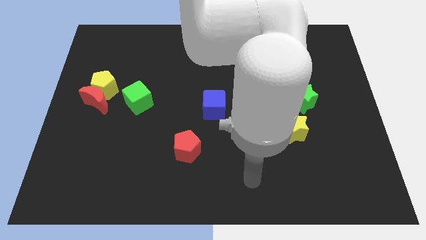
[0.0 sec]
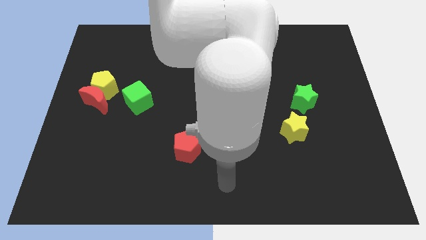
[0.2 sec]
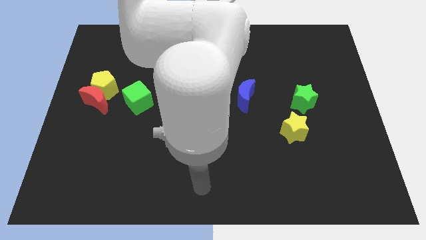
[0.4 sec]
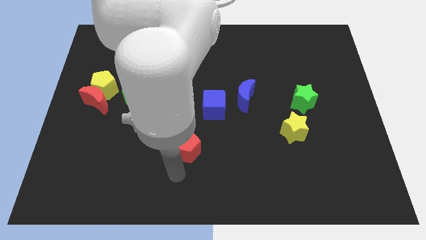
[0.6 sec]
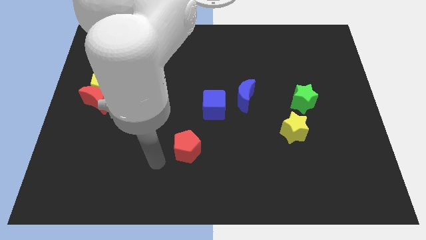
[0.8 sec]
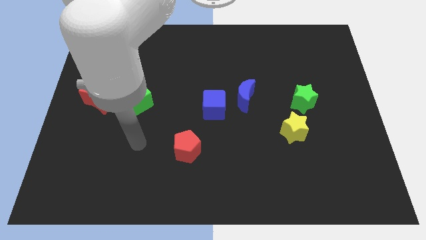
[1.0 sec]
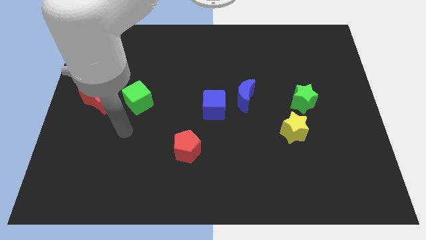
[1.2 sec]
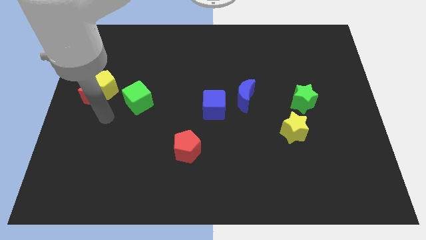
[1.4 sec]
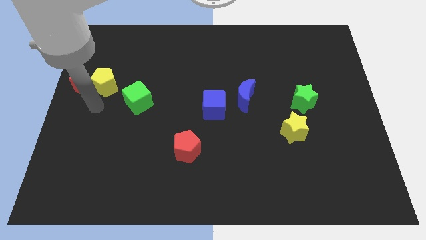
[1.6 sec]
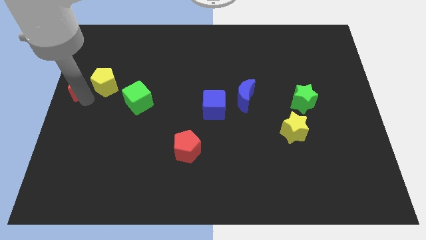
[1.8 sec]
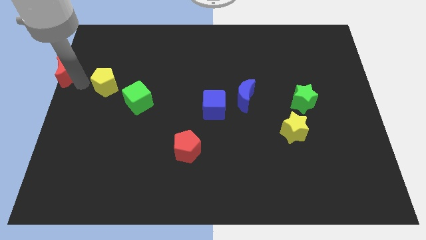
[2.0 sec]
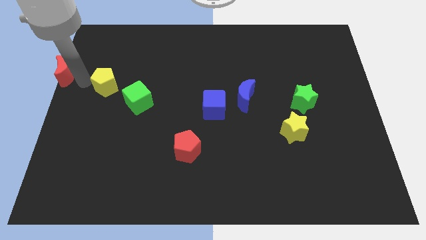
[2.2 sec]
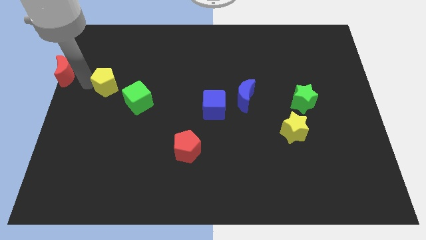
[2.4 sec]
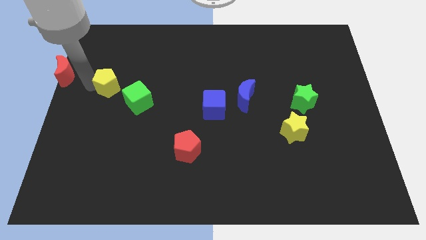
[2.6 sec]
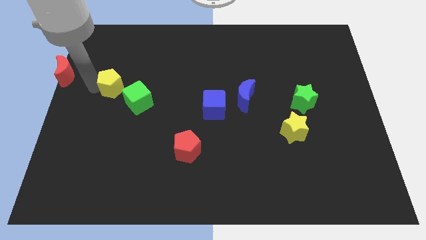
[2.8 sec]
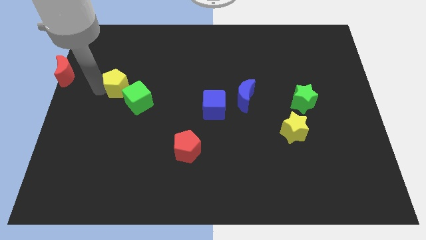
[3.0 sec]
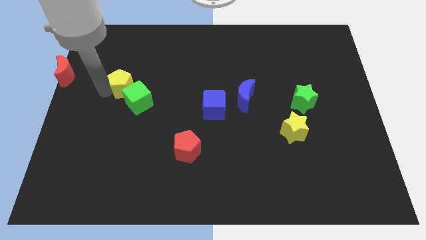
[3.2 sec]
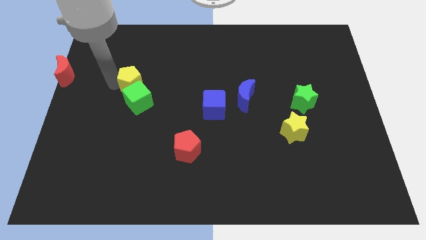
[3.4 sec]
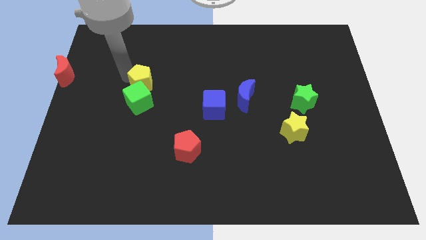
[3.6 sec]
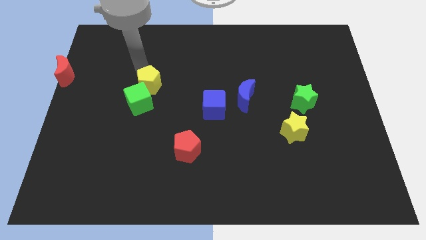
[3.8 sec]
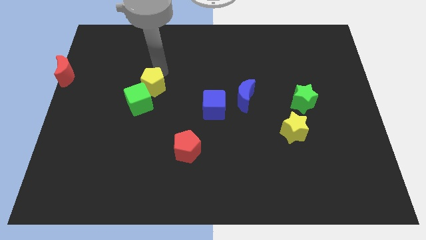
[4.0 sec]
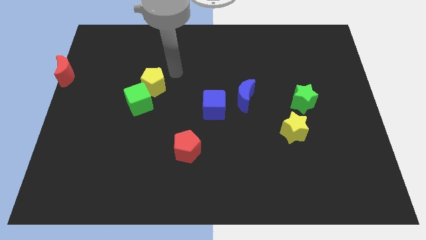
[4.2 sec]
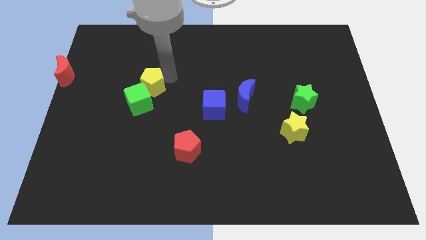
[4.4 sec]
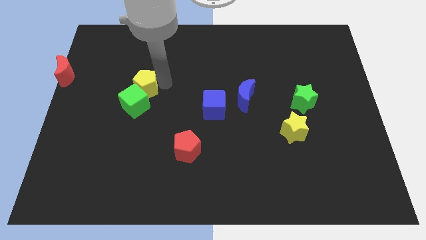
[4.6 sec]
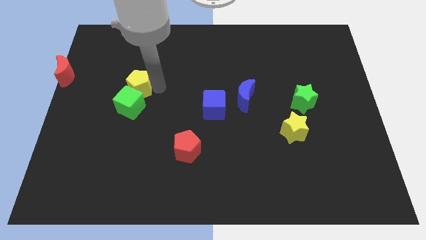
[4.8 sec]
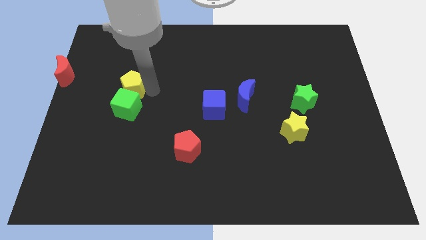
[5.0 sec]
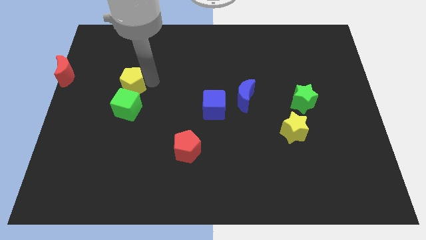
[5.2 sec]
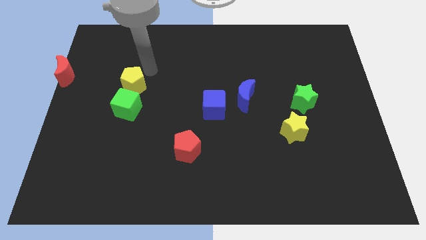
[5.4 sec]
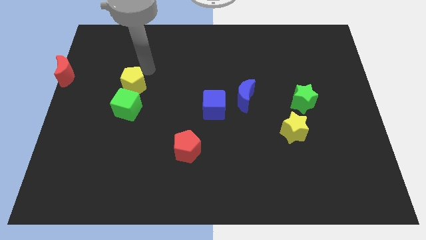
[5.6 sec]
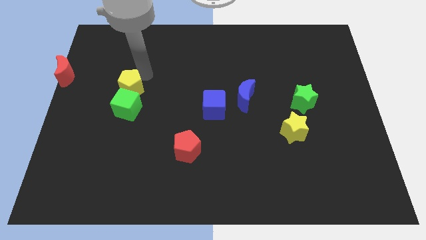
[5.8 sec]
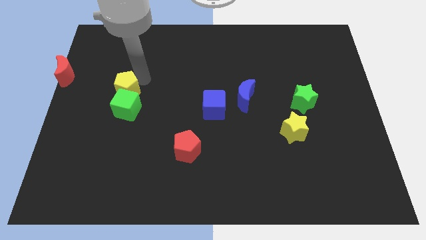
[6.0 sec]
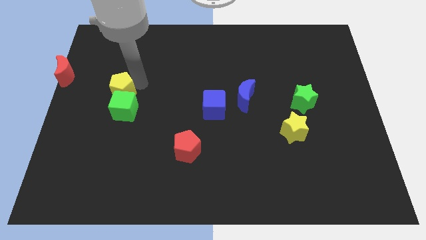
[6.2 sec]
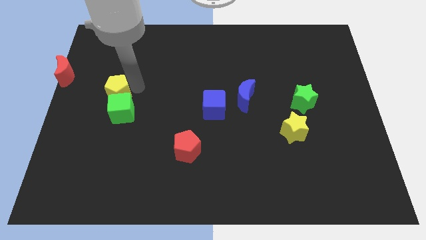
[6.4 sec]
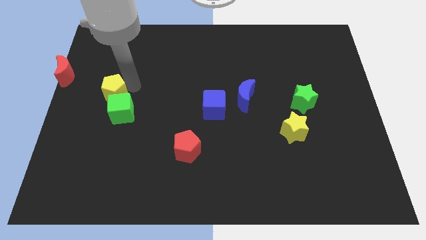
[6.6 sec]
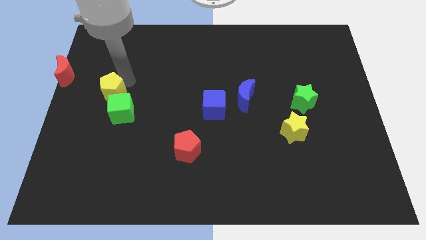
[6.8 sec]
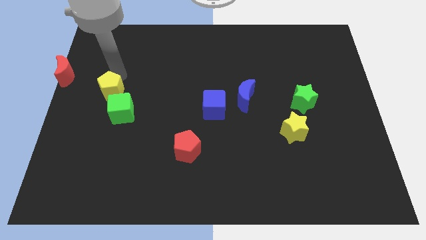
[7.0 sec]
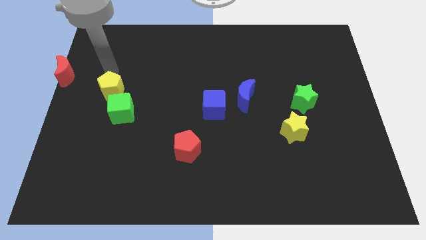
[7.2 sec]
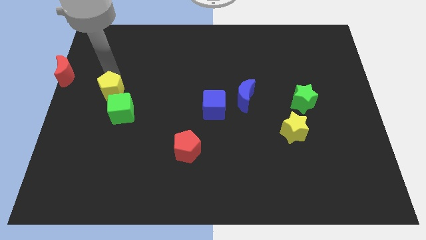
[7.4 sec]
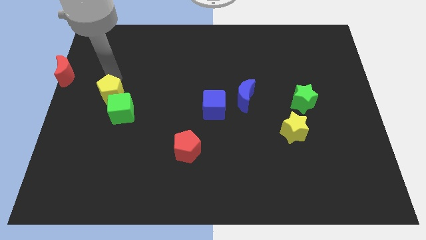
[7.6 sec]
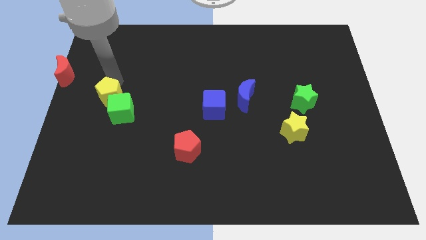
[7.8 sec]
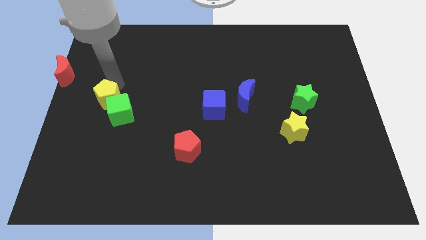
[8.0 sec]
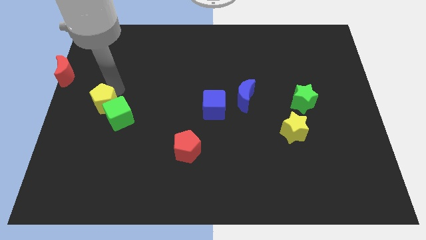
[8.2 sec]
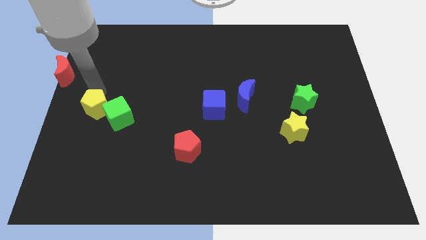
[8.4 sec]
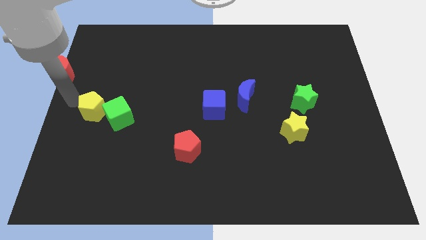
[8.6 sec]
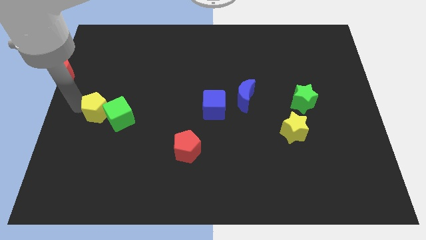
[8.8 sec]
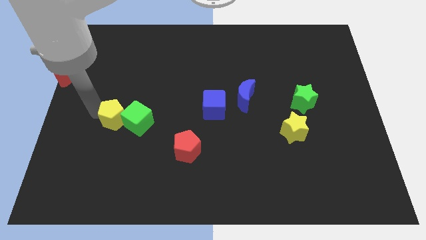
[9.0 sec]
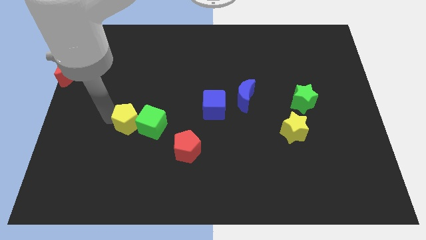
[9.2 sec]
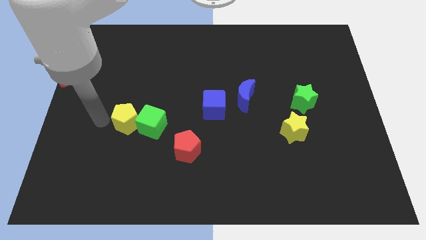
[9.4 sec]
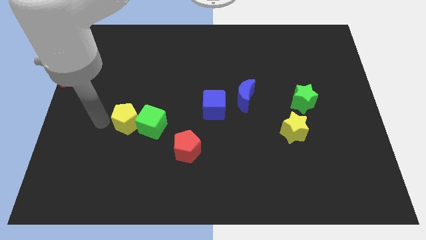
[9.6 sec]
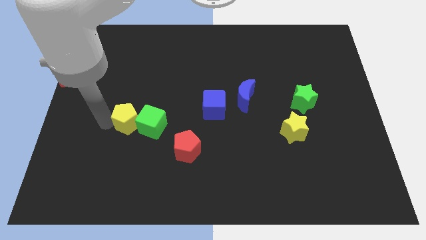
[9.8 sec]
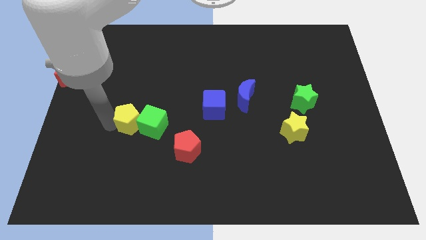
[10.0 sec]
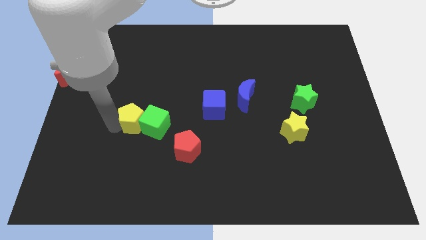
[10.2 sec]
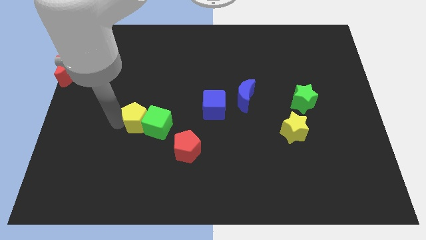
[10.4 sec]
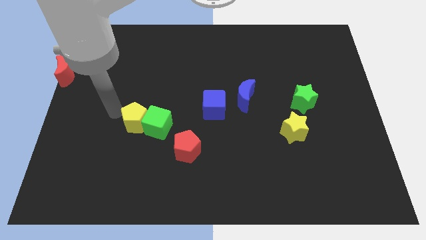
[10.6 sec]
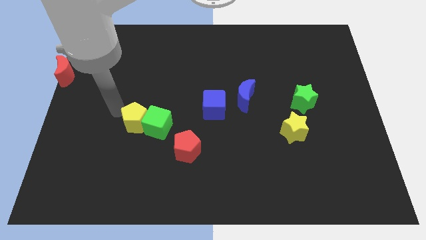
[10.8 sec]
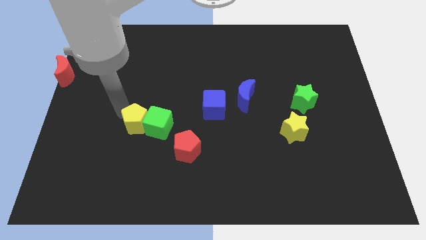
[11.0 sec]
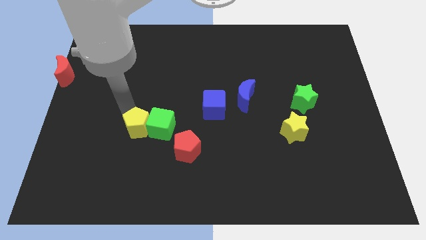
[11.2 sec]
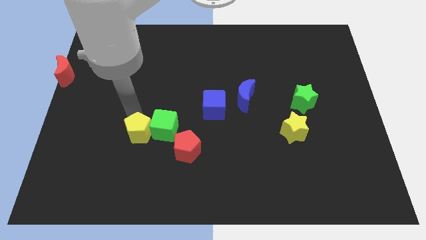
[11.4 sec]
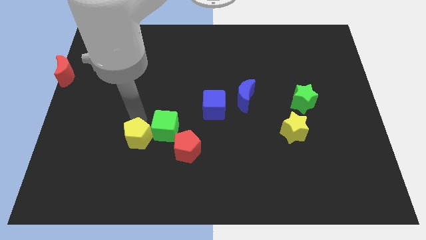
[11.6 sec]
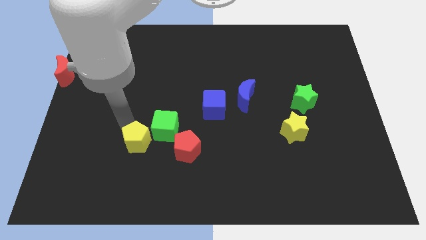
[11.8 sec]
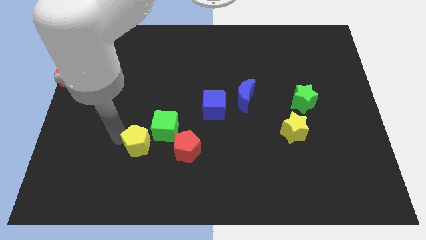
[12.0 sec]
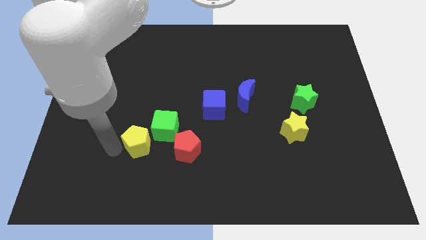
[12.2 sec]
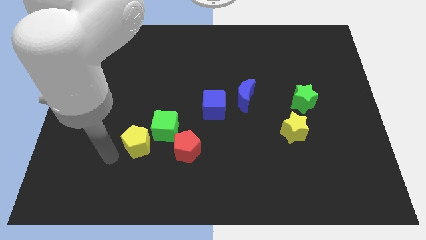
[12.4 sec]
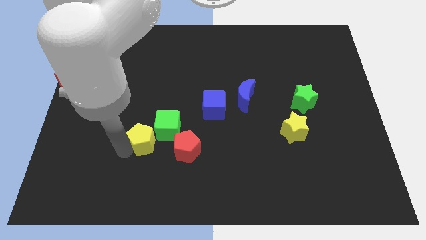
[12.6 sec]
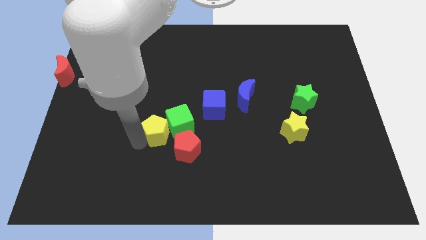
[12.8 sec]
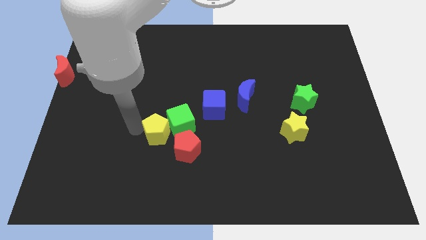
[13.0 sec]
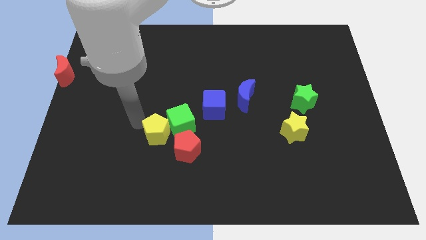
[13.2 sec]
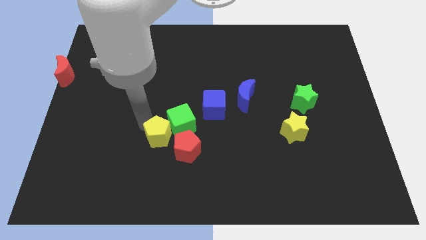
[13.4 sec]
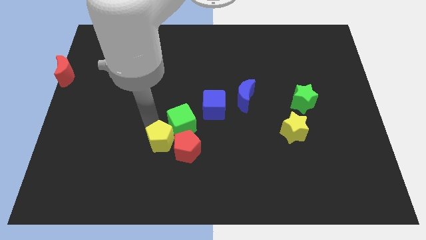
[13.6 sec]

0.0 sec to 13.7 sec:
move the yellow pentagon close to the red pentagon

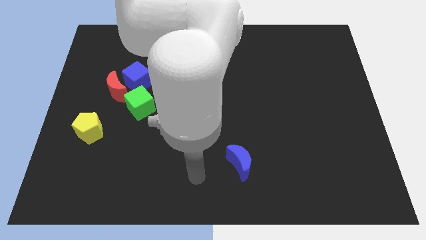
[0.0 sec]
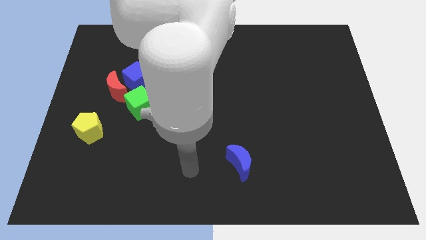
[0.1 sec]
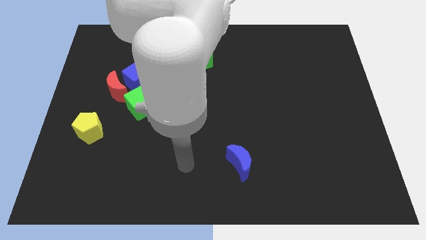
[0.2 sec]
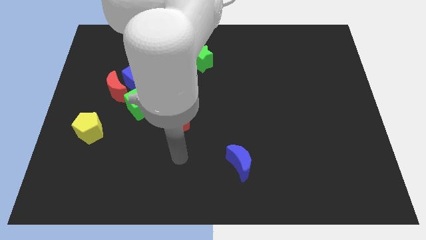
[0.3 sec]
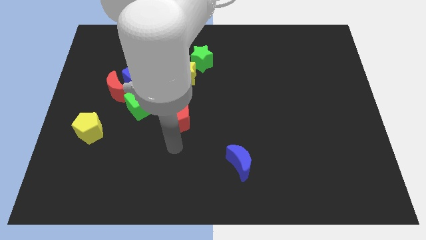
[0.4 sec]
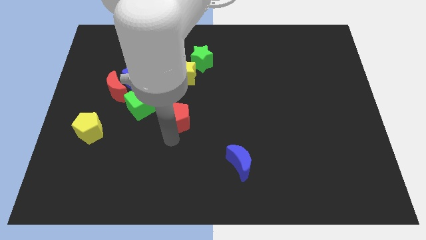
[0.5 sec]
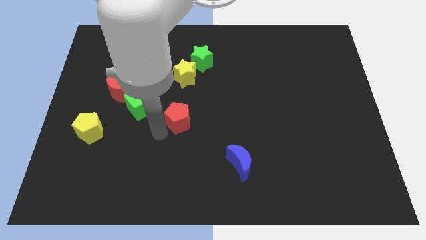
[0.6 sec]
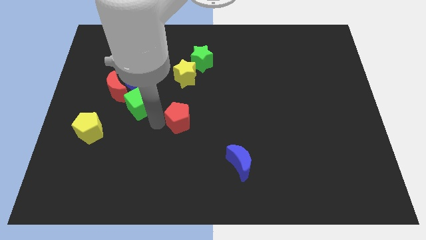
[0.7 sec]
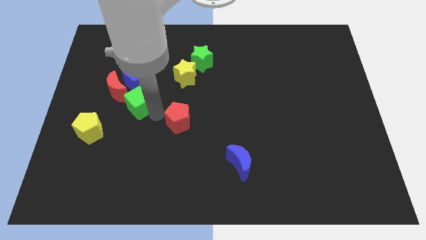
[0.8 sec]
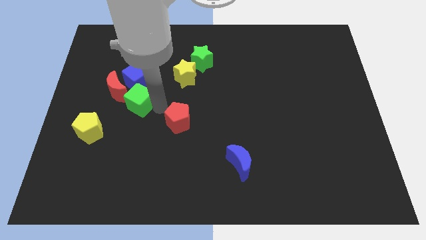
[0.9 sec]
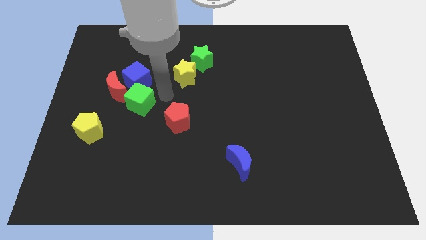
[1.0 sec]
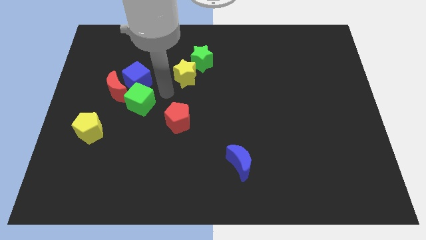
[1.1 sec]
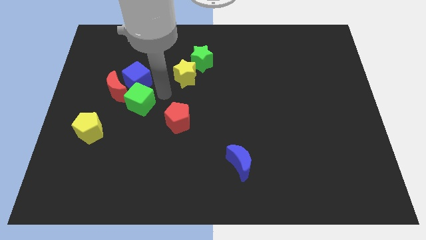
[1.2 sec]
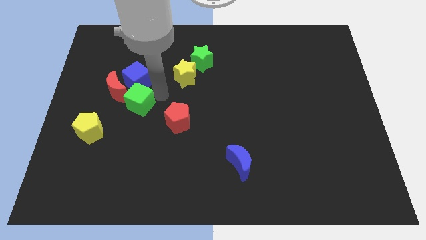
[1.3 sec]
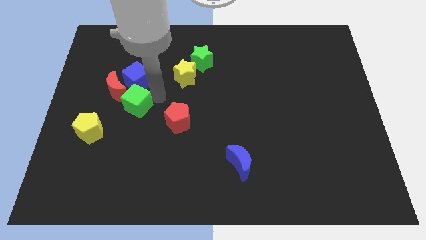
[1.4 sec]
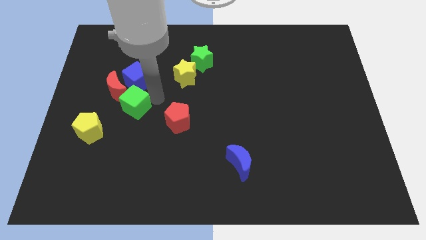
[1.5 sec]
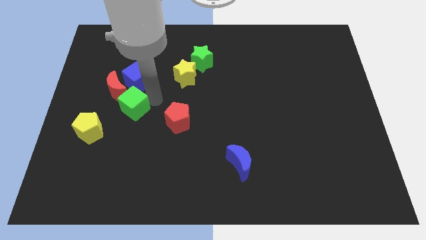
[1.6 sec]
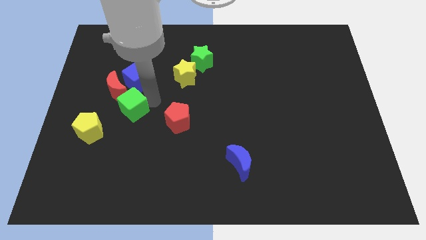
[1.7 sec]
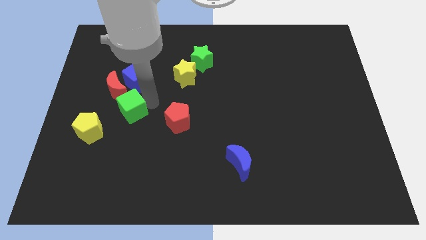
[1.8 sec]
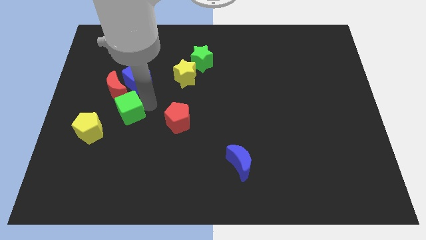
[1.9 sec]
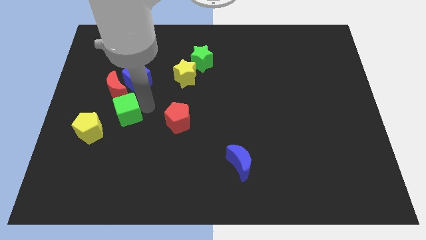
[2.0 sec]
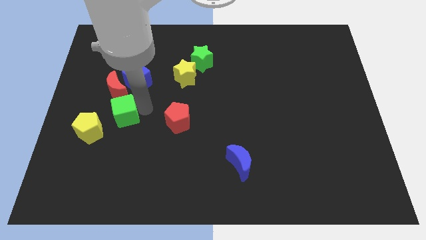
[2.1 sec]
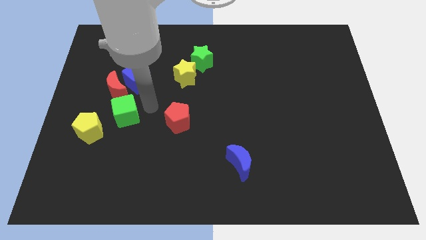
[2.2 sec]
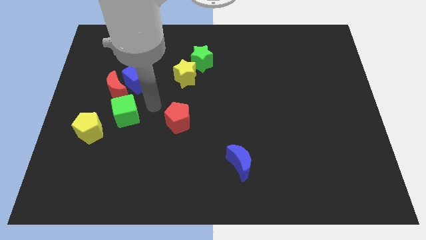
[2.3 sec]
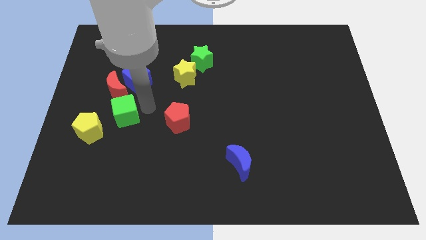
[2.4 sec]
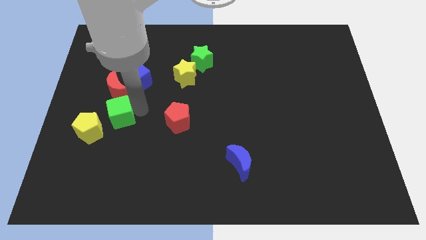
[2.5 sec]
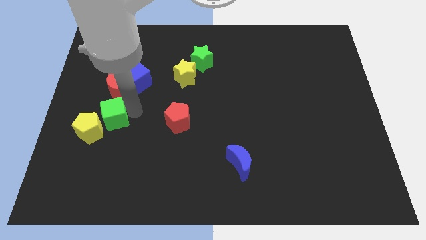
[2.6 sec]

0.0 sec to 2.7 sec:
move the green cube close to the yellow pentagon
